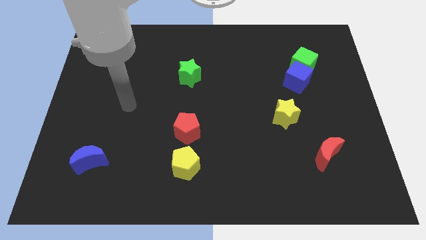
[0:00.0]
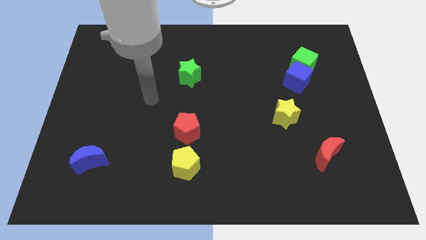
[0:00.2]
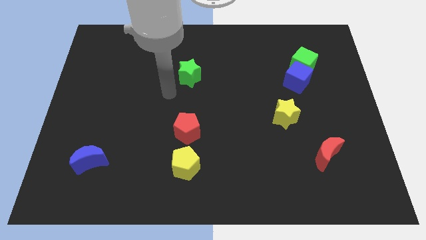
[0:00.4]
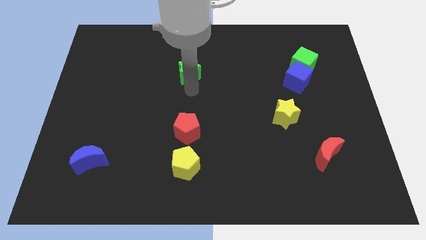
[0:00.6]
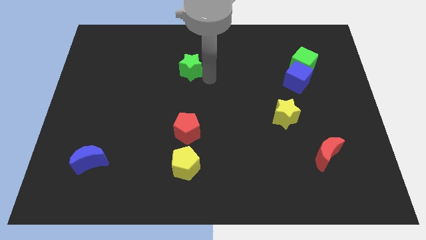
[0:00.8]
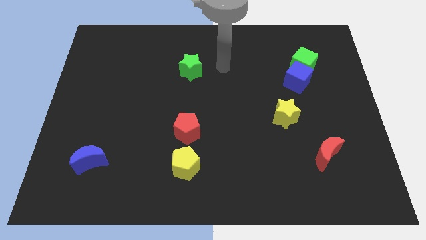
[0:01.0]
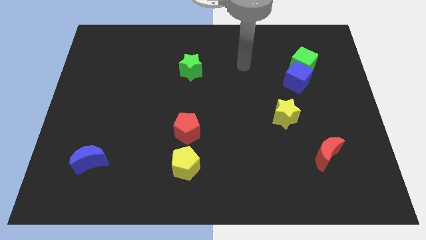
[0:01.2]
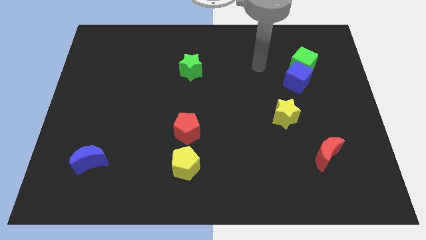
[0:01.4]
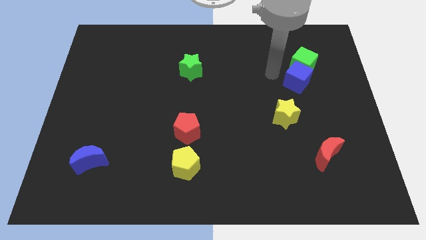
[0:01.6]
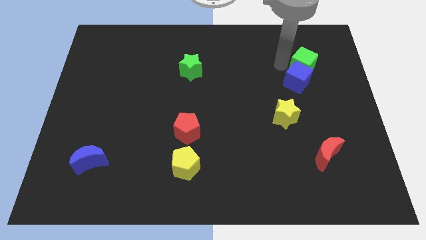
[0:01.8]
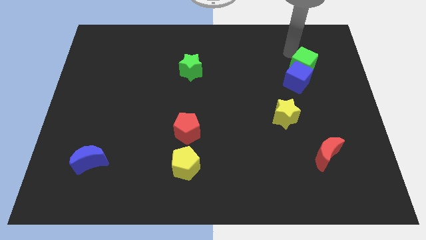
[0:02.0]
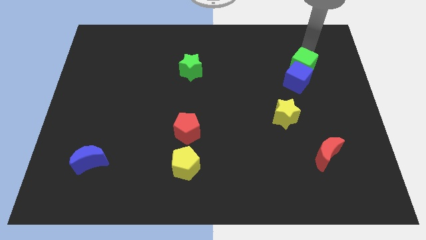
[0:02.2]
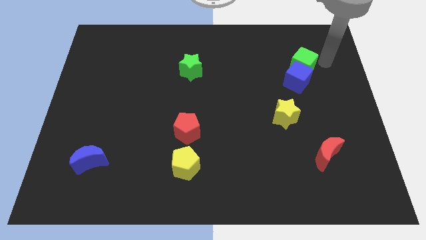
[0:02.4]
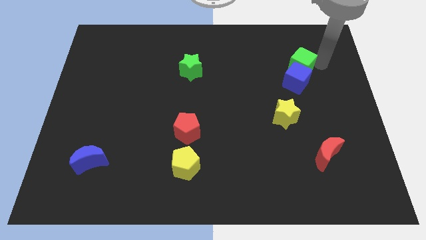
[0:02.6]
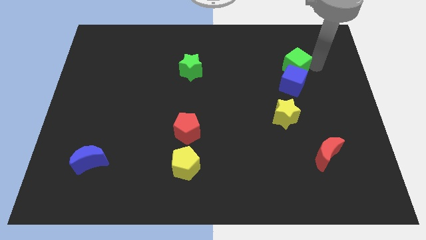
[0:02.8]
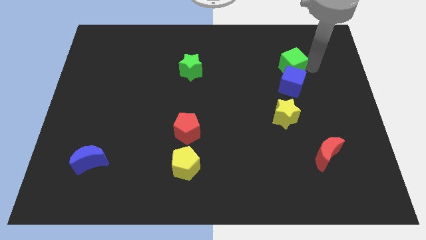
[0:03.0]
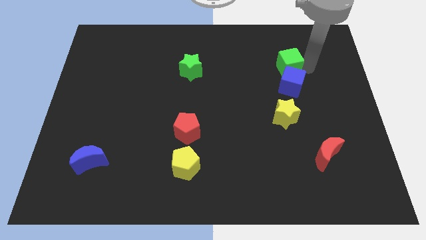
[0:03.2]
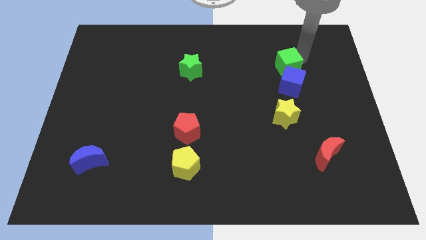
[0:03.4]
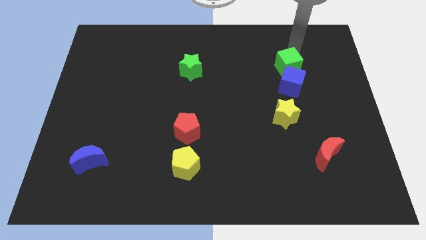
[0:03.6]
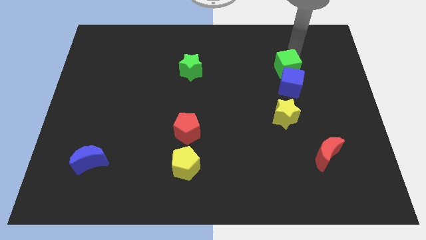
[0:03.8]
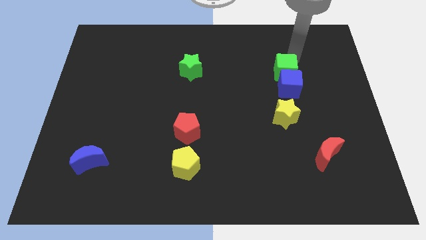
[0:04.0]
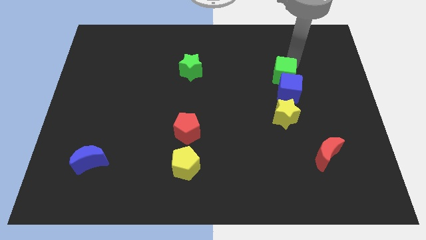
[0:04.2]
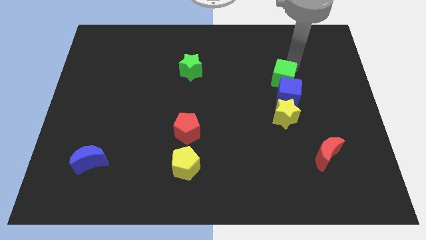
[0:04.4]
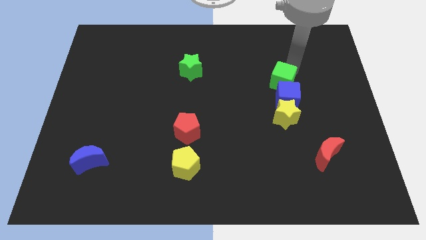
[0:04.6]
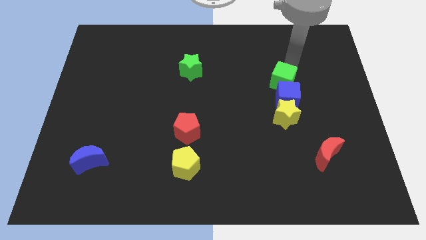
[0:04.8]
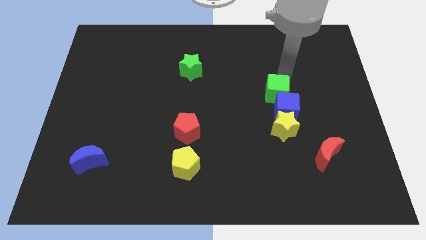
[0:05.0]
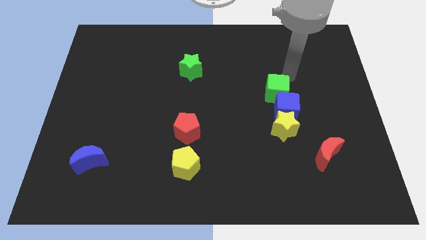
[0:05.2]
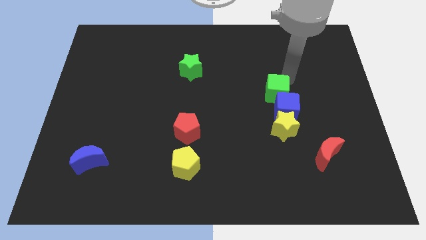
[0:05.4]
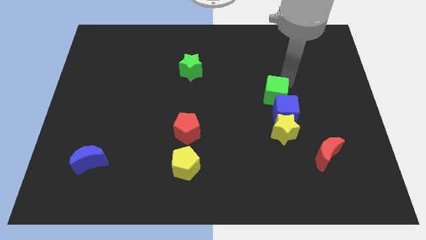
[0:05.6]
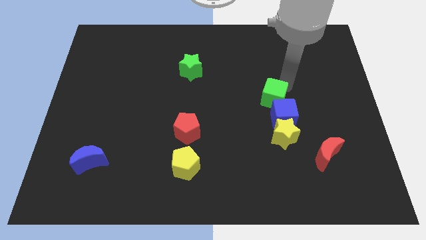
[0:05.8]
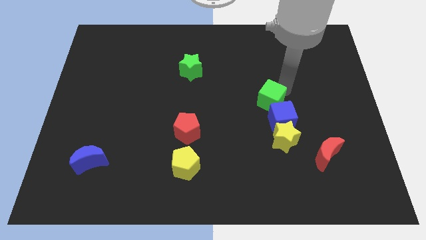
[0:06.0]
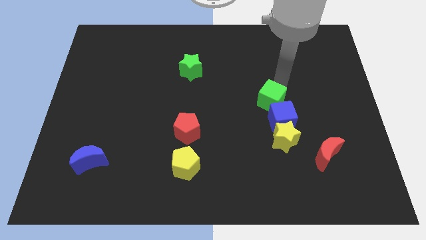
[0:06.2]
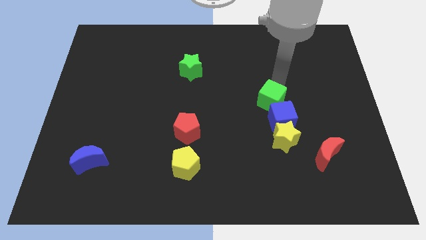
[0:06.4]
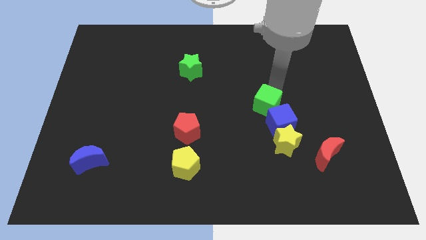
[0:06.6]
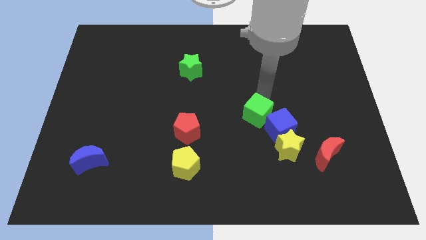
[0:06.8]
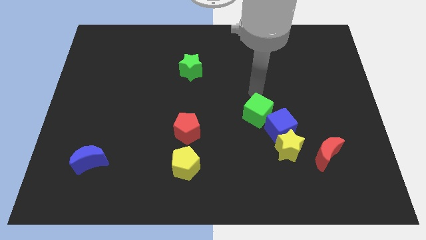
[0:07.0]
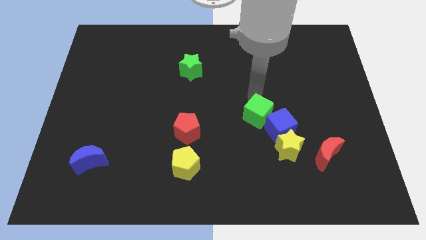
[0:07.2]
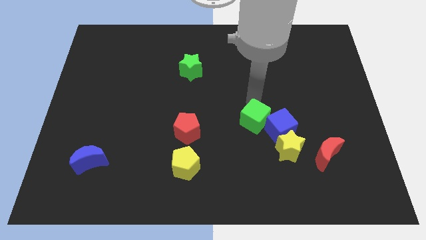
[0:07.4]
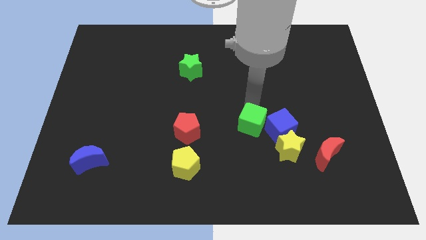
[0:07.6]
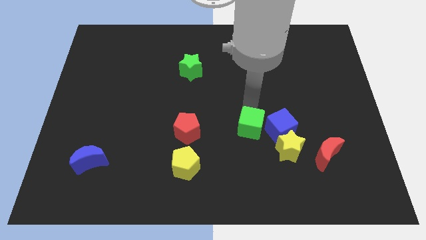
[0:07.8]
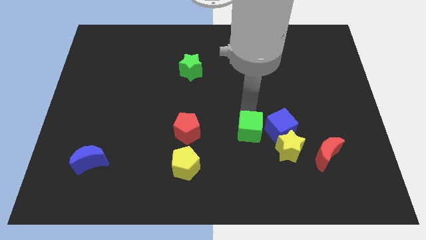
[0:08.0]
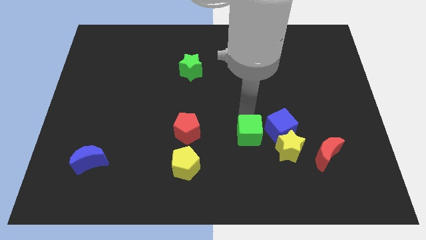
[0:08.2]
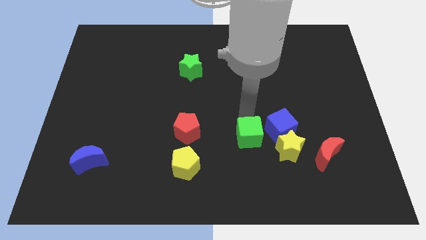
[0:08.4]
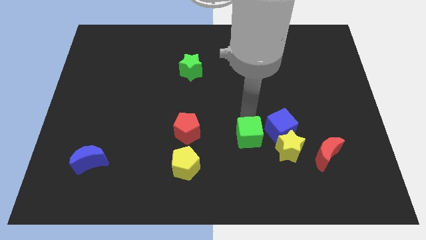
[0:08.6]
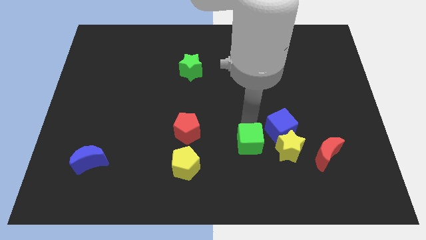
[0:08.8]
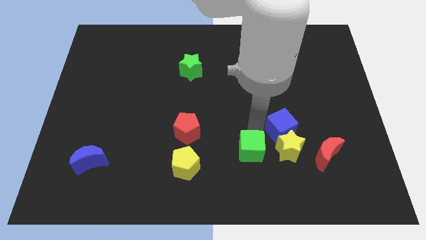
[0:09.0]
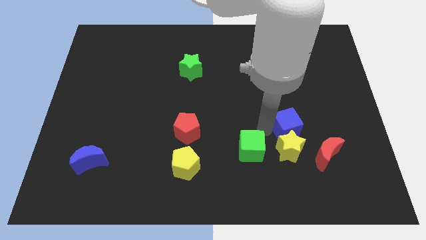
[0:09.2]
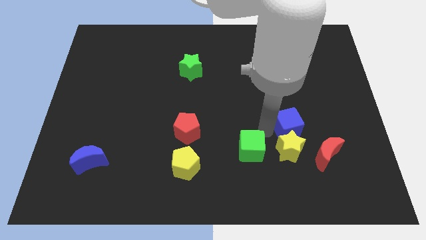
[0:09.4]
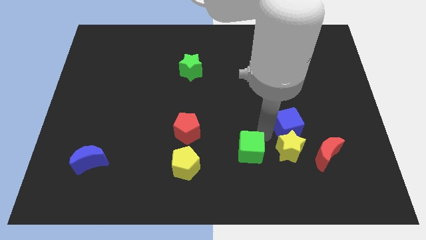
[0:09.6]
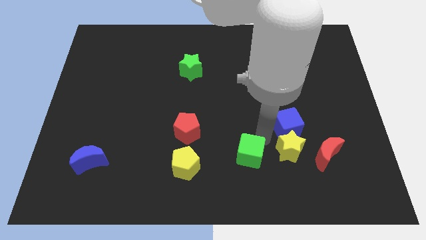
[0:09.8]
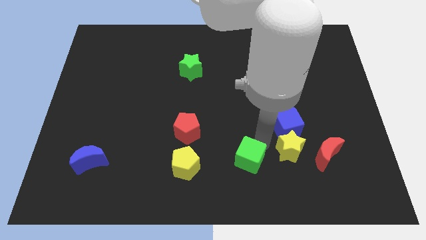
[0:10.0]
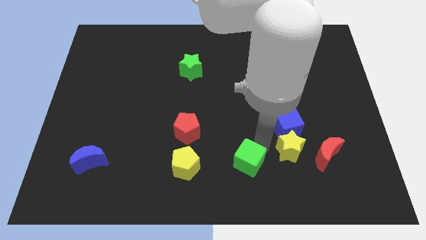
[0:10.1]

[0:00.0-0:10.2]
slide the green cube to the bottom

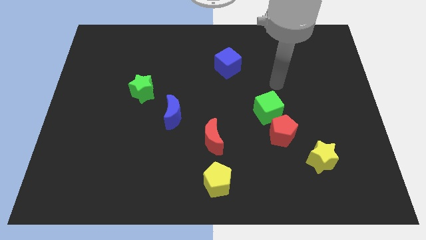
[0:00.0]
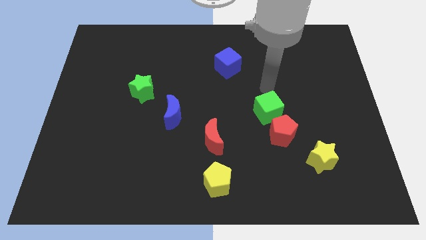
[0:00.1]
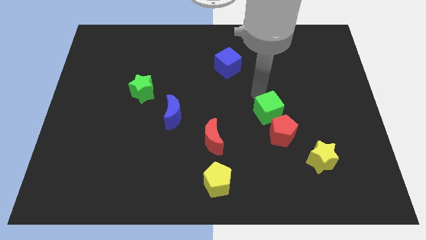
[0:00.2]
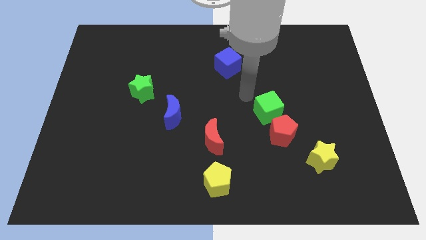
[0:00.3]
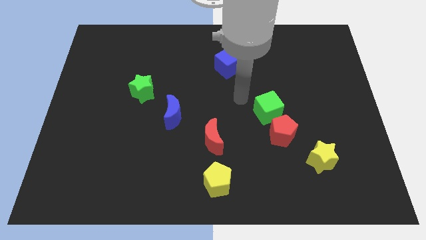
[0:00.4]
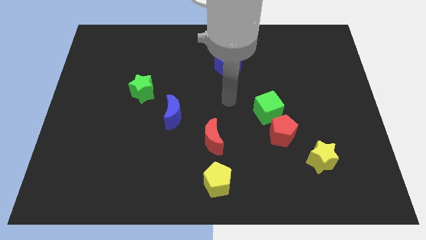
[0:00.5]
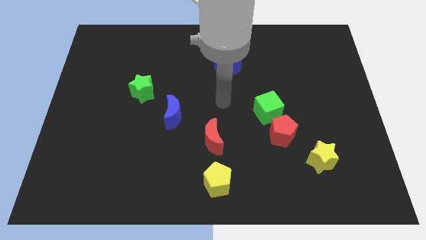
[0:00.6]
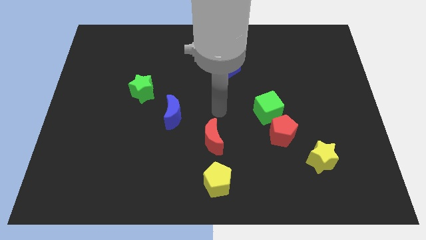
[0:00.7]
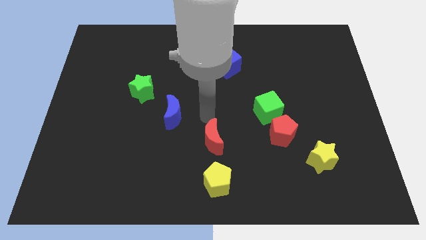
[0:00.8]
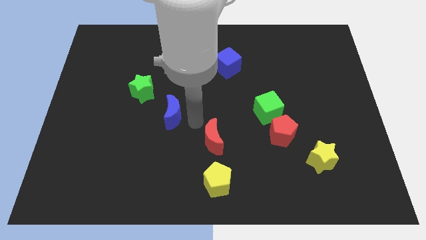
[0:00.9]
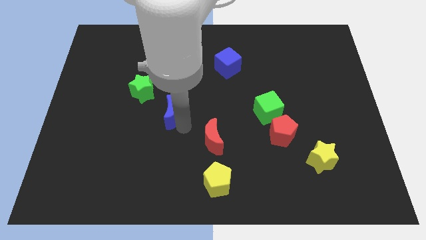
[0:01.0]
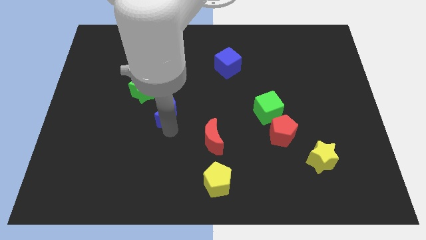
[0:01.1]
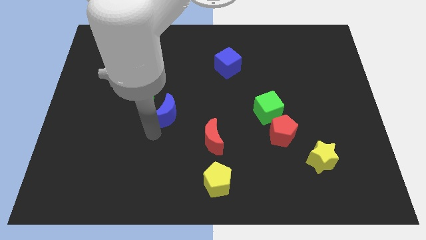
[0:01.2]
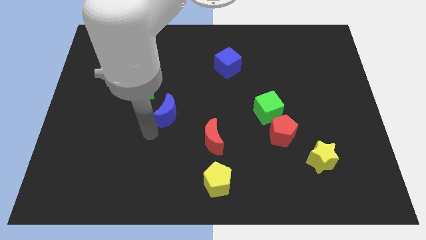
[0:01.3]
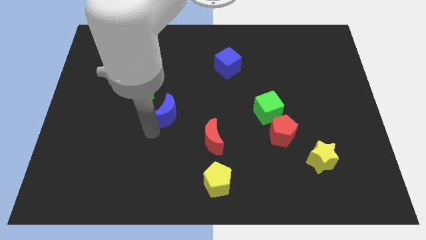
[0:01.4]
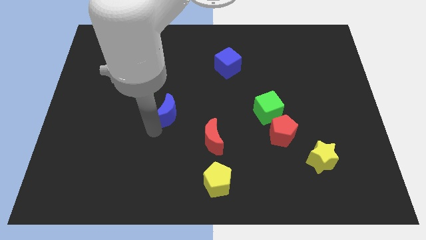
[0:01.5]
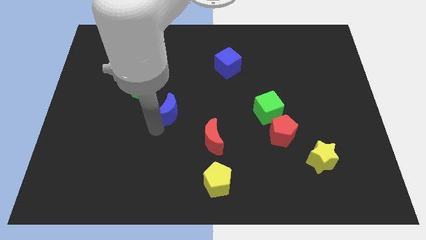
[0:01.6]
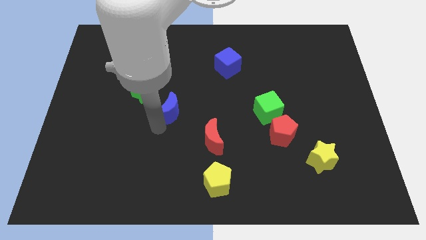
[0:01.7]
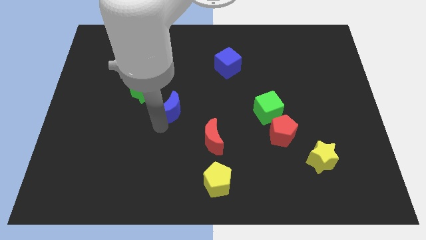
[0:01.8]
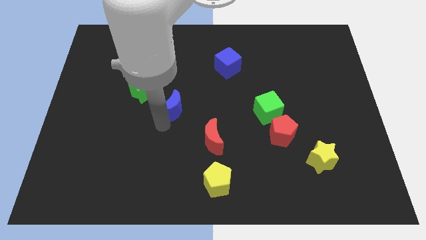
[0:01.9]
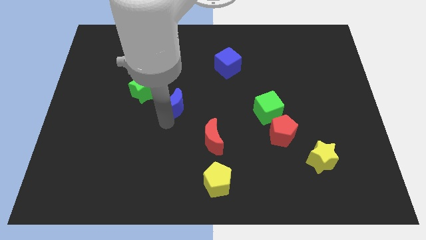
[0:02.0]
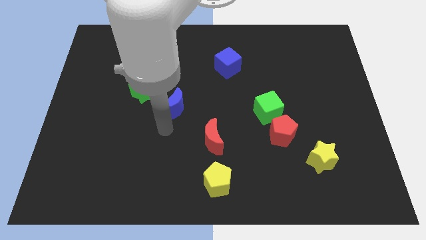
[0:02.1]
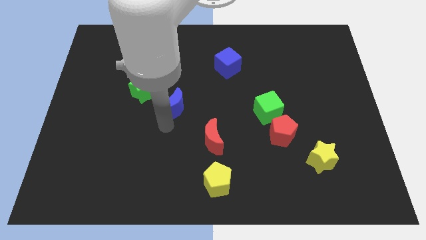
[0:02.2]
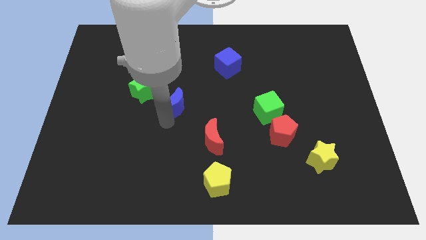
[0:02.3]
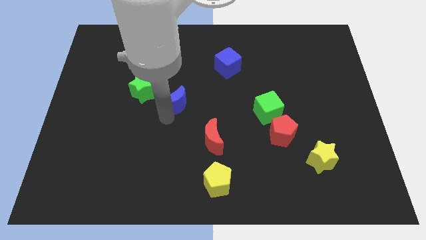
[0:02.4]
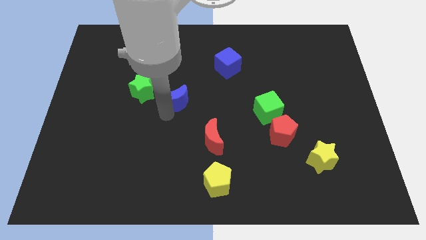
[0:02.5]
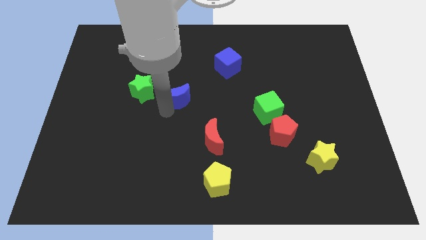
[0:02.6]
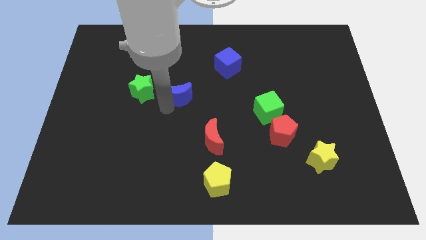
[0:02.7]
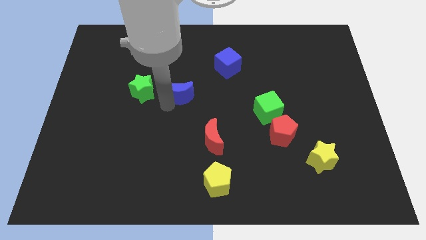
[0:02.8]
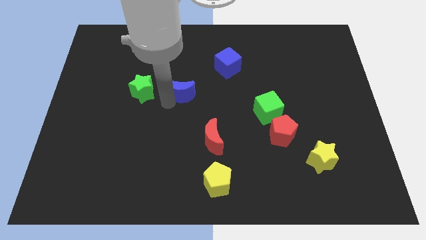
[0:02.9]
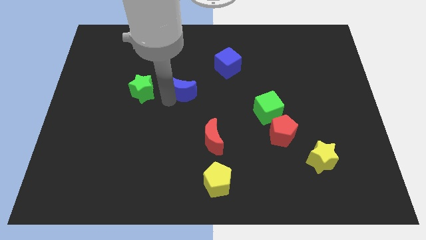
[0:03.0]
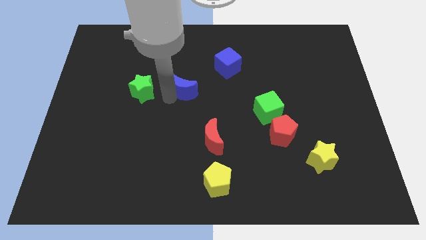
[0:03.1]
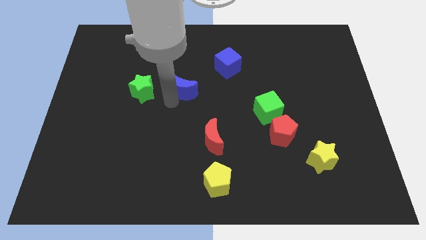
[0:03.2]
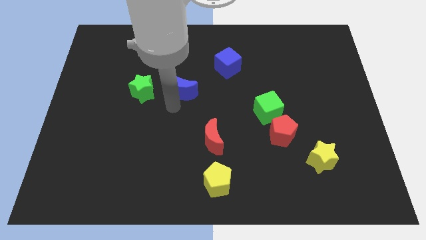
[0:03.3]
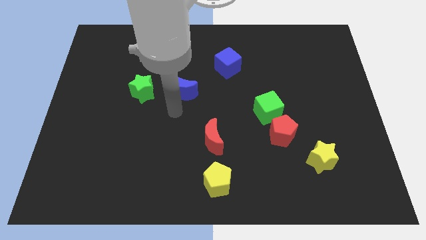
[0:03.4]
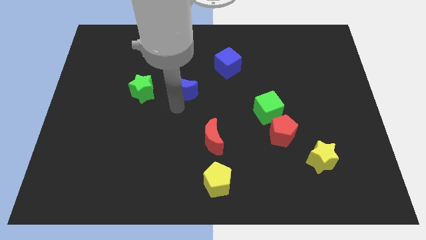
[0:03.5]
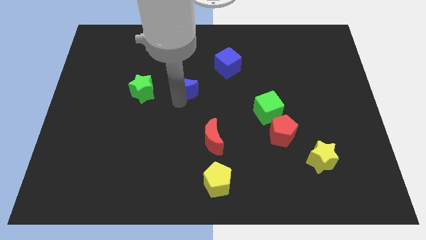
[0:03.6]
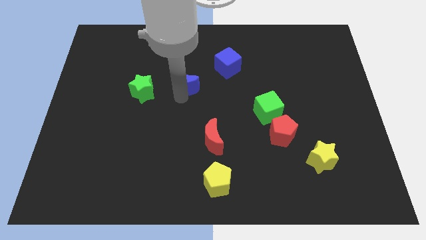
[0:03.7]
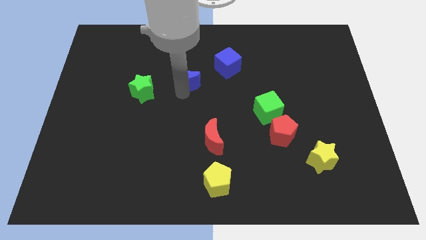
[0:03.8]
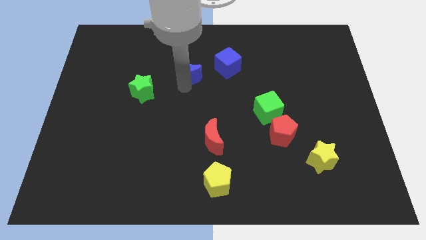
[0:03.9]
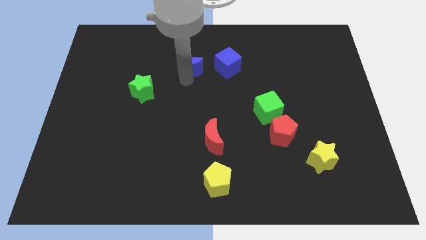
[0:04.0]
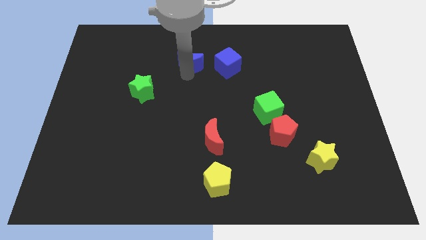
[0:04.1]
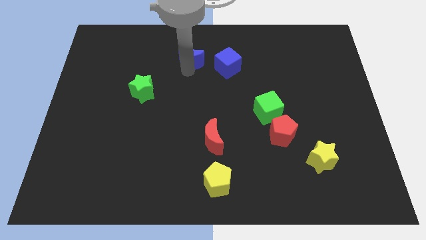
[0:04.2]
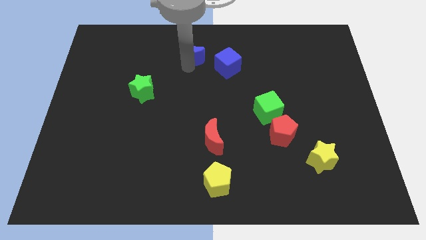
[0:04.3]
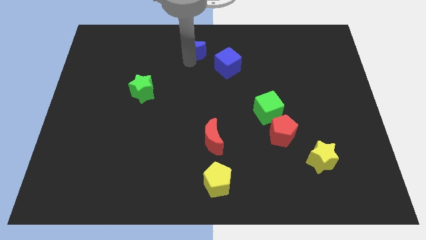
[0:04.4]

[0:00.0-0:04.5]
slide the blue moon to the top side
